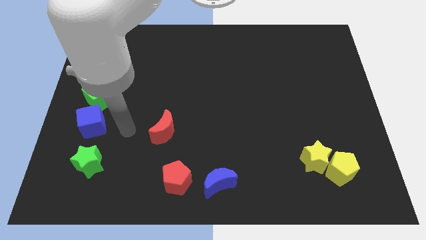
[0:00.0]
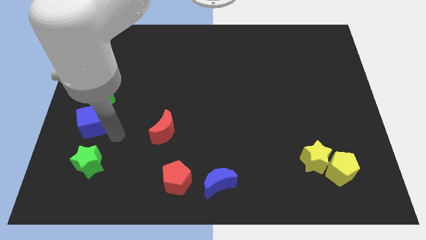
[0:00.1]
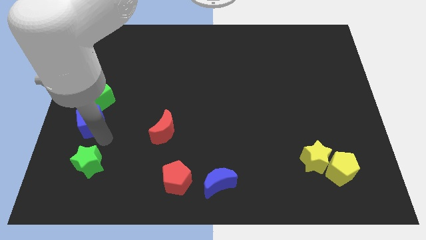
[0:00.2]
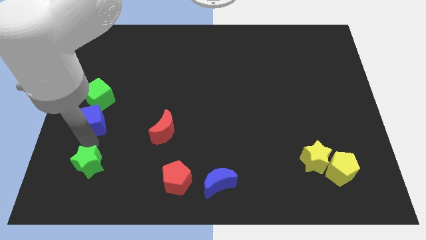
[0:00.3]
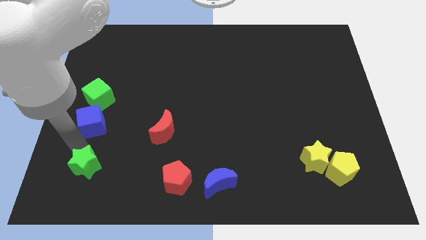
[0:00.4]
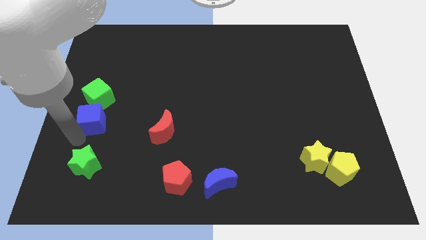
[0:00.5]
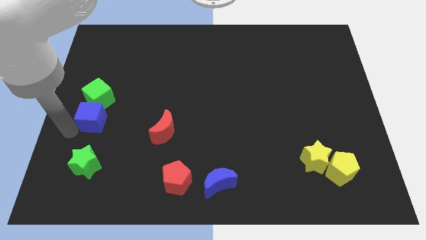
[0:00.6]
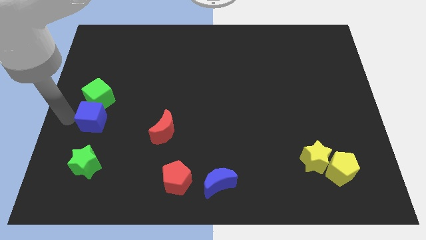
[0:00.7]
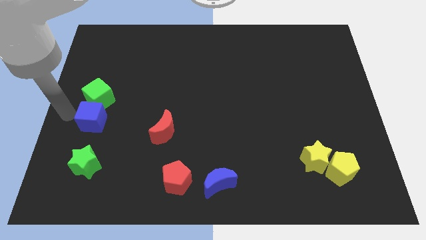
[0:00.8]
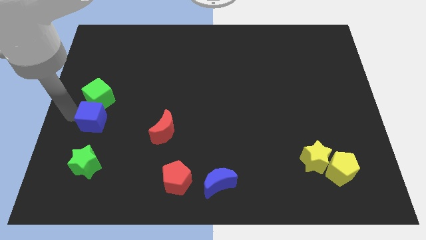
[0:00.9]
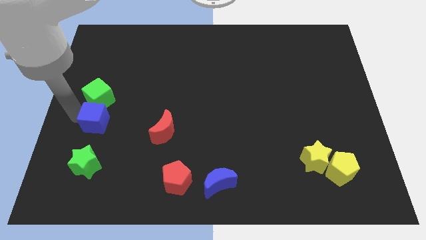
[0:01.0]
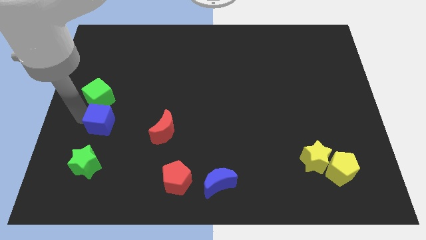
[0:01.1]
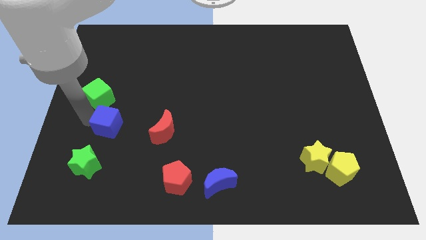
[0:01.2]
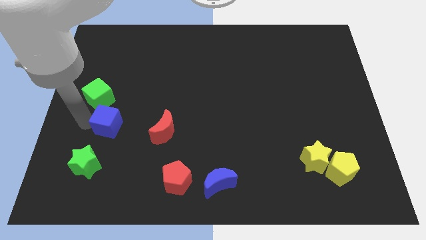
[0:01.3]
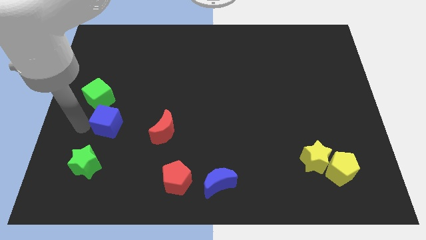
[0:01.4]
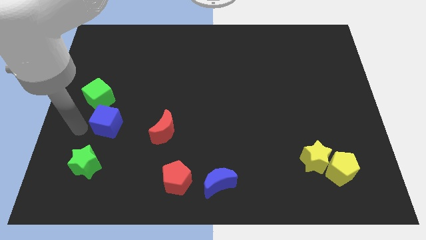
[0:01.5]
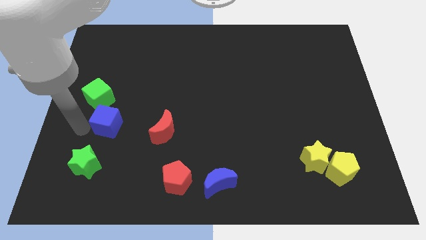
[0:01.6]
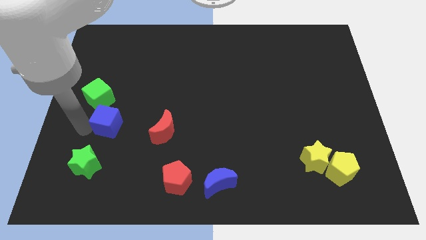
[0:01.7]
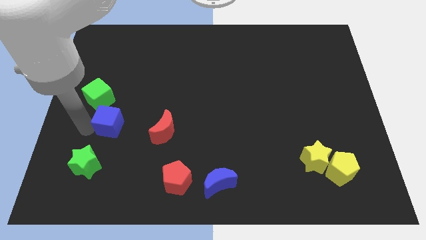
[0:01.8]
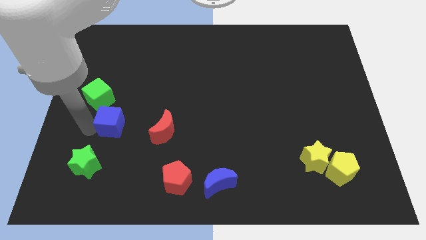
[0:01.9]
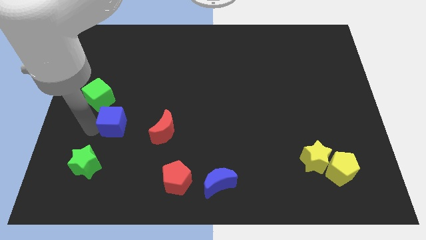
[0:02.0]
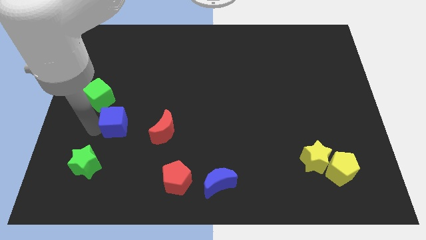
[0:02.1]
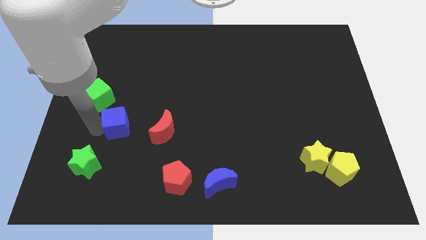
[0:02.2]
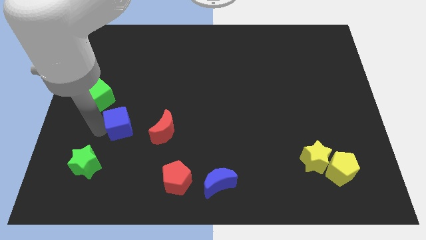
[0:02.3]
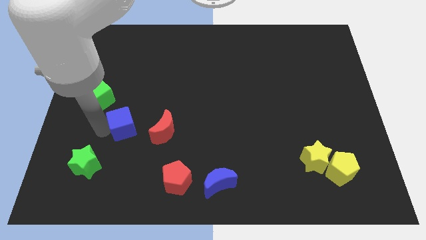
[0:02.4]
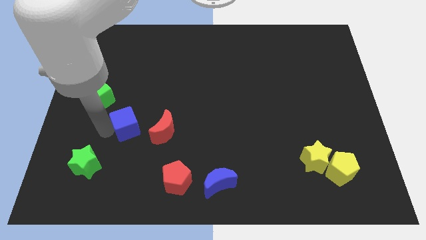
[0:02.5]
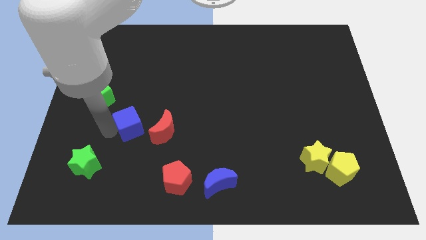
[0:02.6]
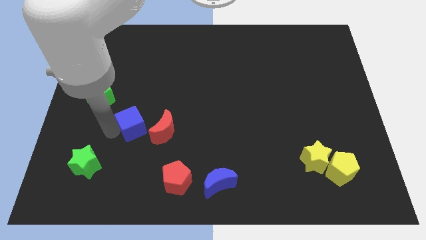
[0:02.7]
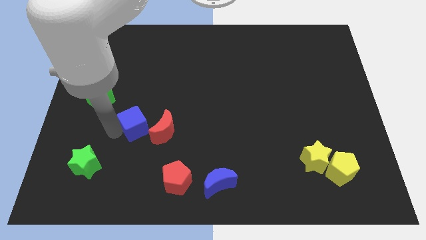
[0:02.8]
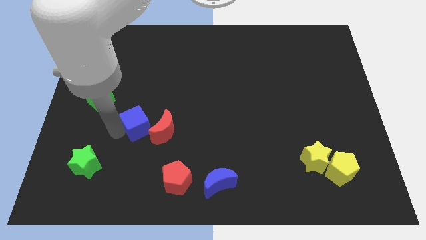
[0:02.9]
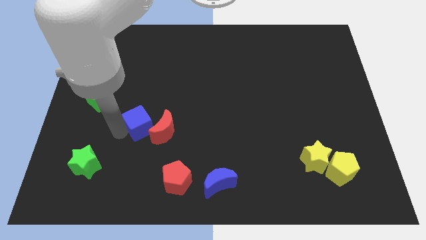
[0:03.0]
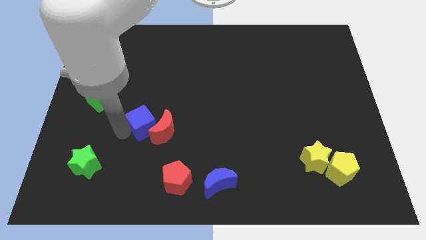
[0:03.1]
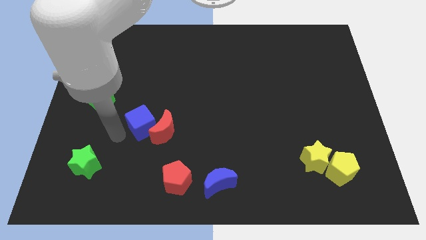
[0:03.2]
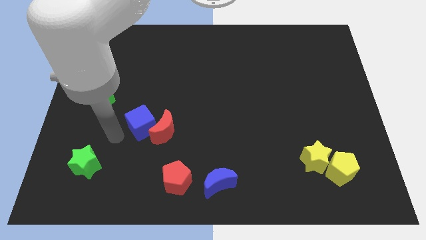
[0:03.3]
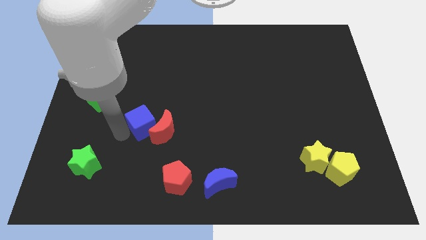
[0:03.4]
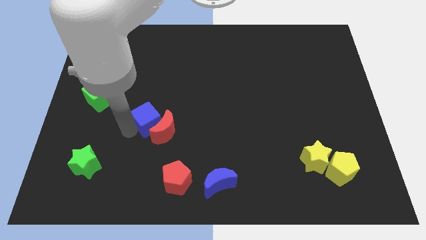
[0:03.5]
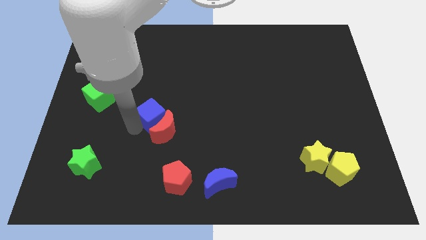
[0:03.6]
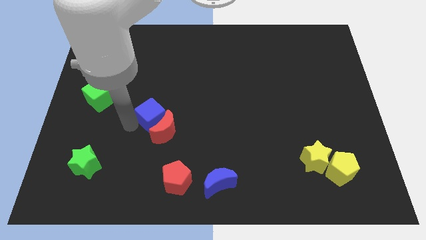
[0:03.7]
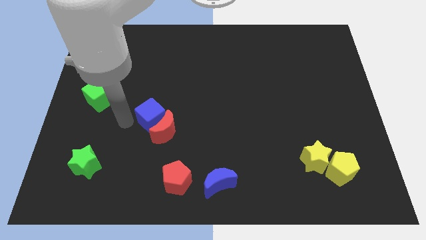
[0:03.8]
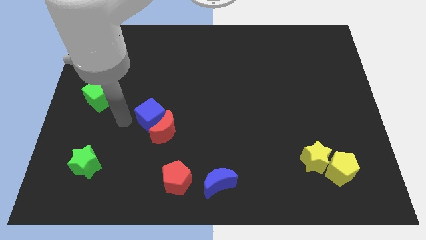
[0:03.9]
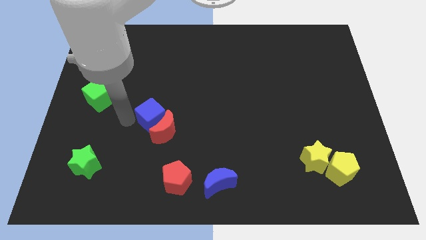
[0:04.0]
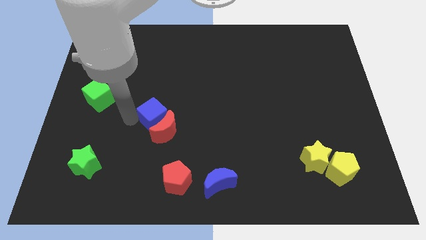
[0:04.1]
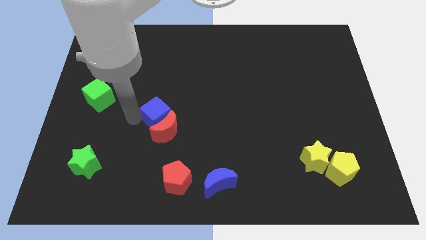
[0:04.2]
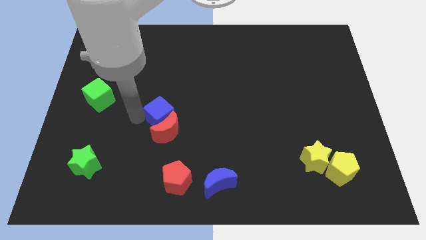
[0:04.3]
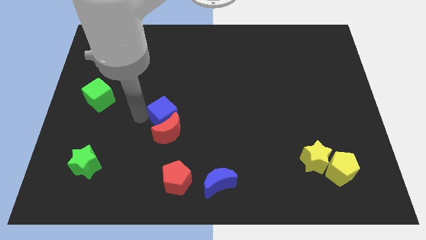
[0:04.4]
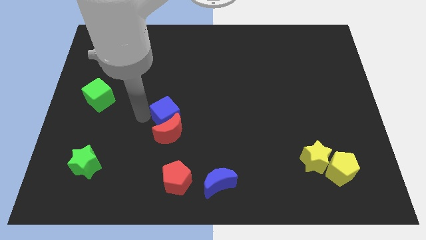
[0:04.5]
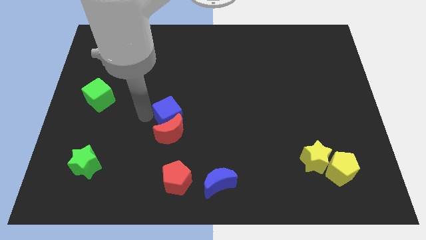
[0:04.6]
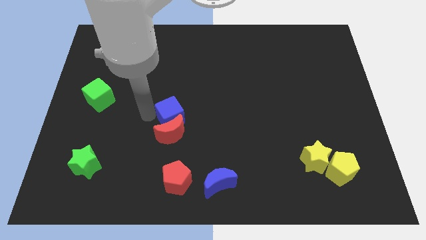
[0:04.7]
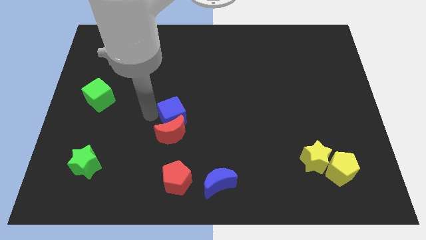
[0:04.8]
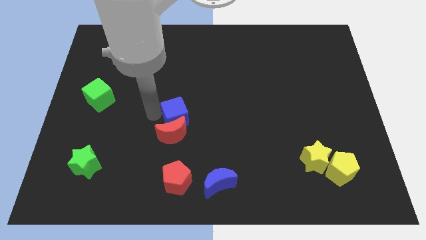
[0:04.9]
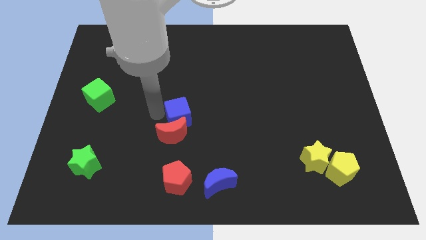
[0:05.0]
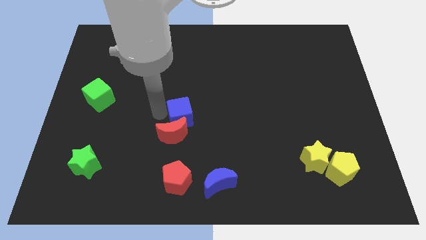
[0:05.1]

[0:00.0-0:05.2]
push the blue cube right

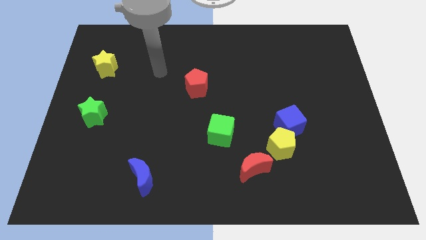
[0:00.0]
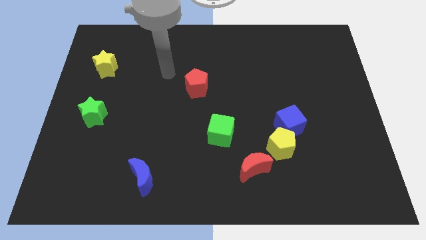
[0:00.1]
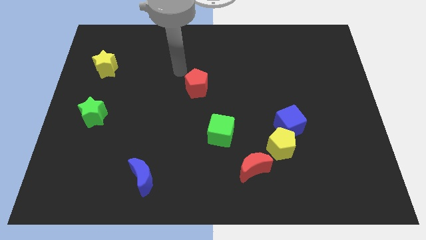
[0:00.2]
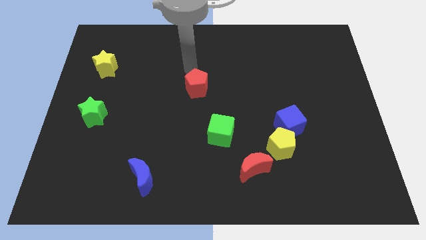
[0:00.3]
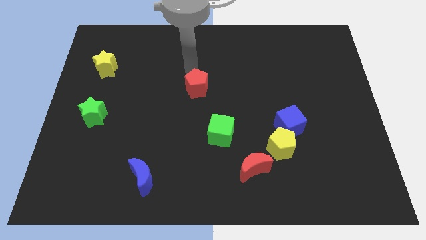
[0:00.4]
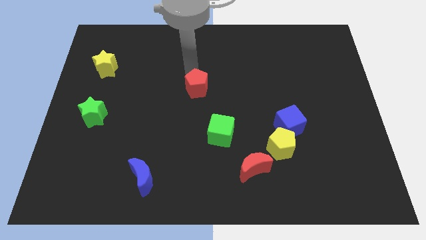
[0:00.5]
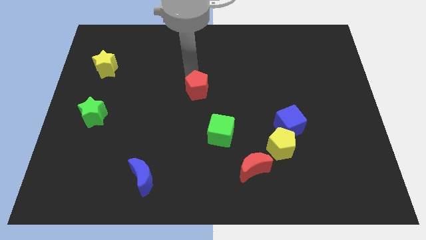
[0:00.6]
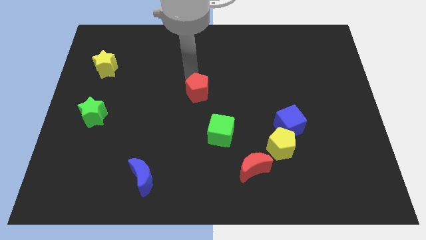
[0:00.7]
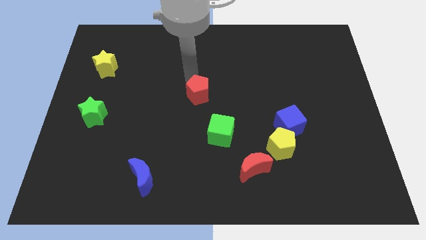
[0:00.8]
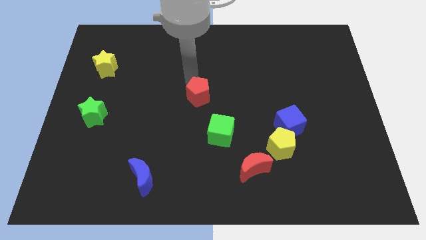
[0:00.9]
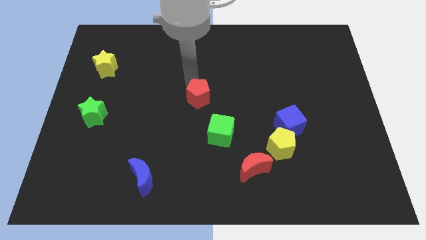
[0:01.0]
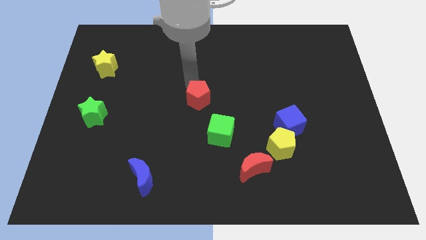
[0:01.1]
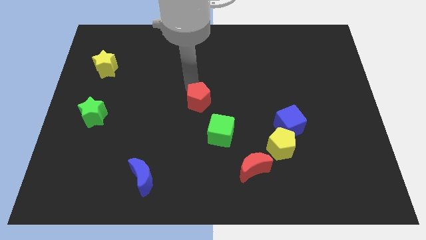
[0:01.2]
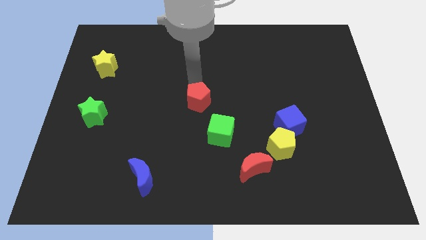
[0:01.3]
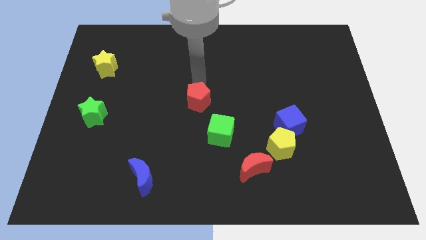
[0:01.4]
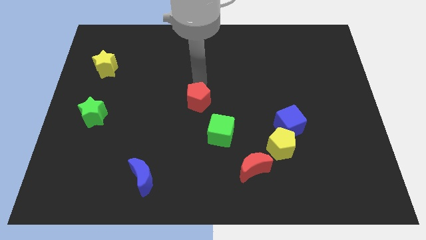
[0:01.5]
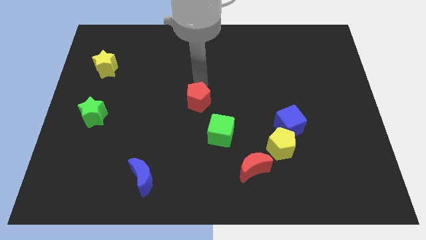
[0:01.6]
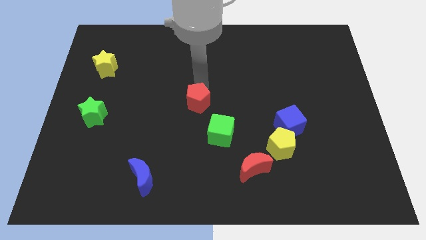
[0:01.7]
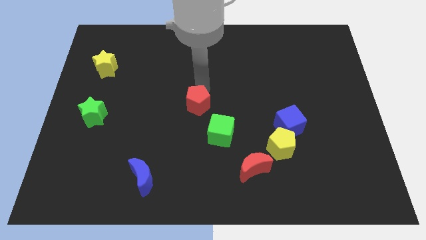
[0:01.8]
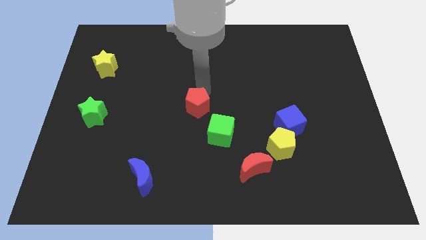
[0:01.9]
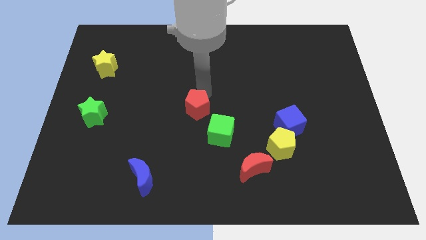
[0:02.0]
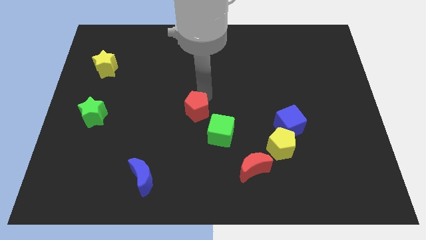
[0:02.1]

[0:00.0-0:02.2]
slightly slide the red pentagon down

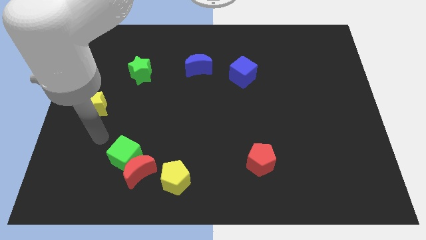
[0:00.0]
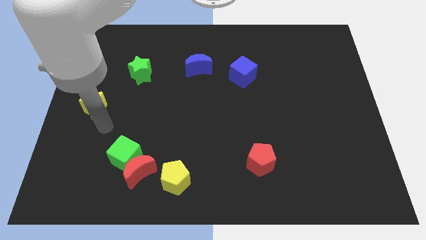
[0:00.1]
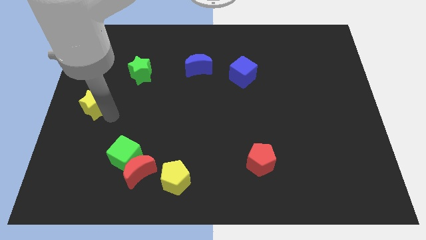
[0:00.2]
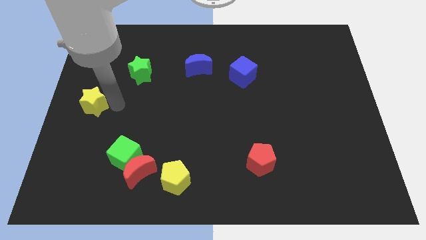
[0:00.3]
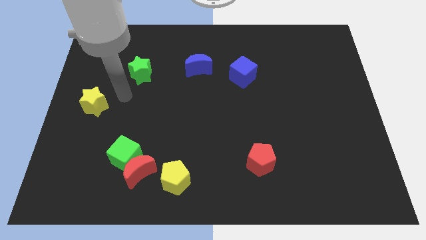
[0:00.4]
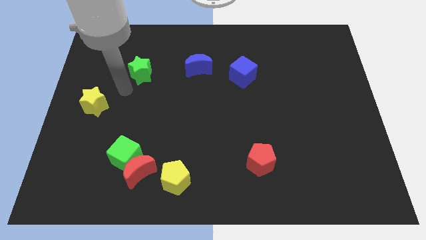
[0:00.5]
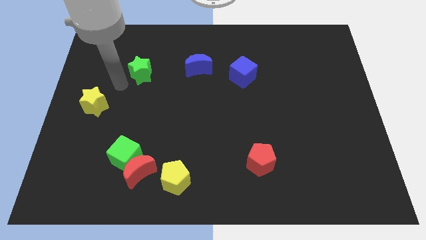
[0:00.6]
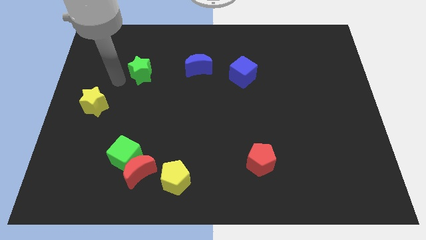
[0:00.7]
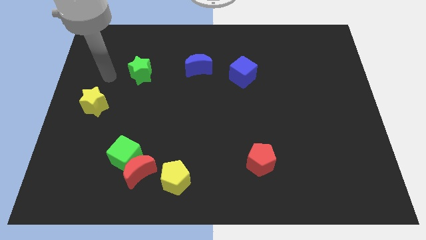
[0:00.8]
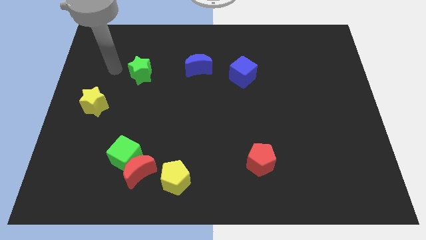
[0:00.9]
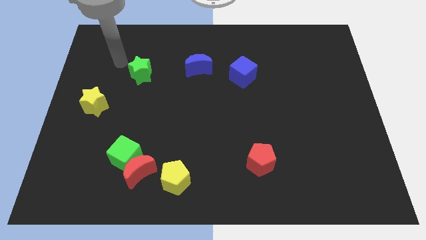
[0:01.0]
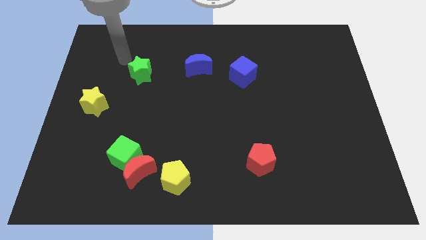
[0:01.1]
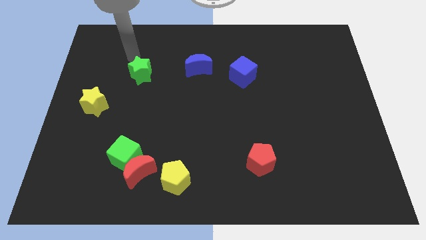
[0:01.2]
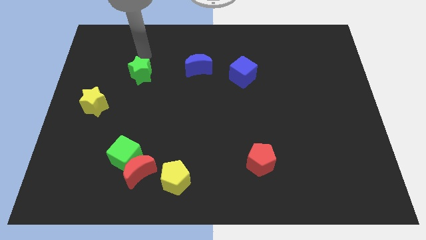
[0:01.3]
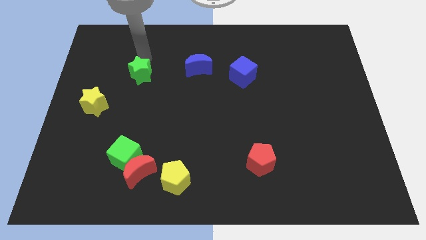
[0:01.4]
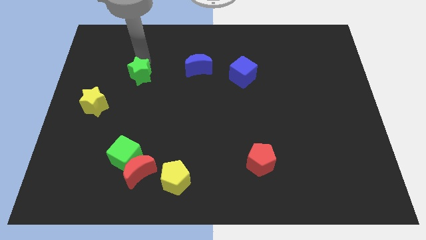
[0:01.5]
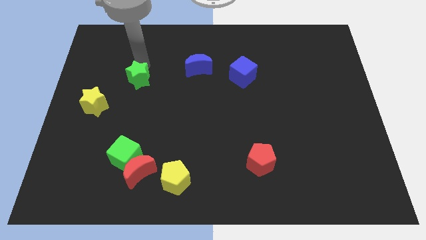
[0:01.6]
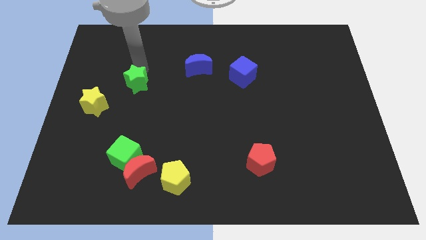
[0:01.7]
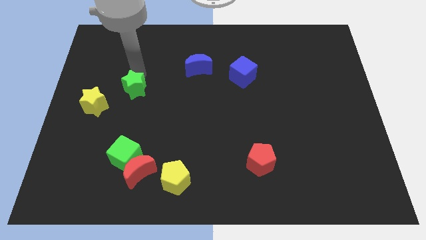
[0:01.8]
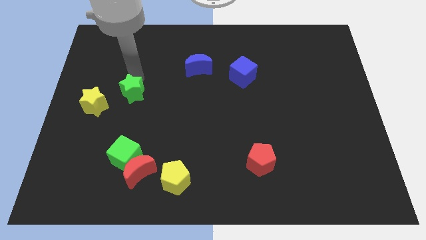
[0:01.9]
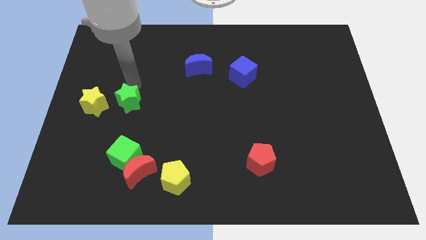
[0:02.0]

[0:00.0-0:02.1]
slide the green star down somewhat
